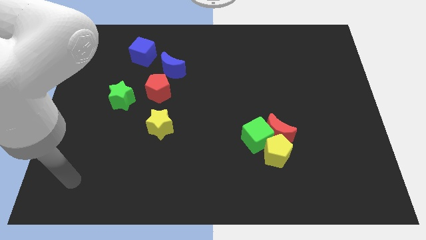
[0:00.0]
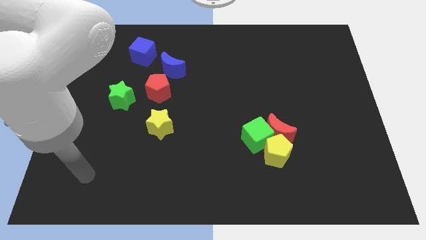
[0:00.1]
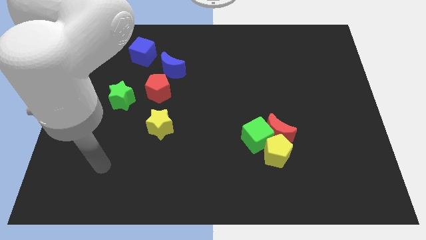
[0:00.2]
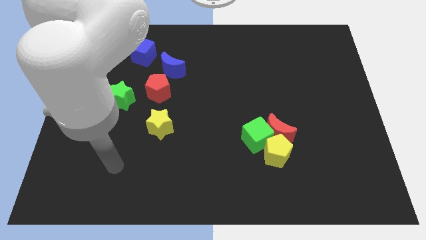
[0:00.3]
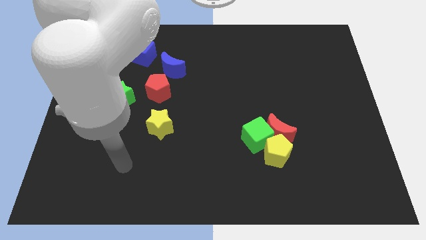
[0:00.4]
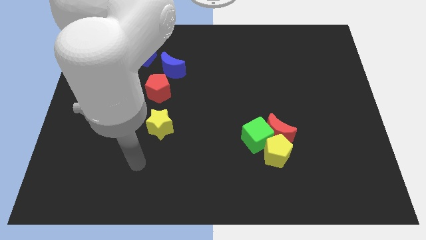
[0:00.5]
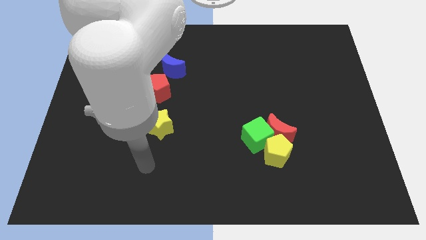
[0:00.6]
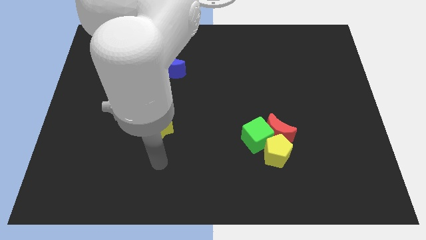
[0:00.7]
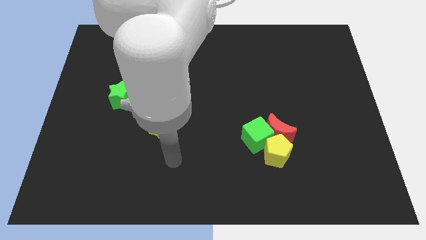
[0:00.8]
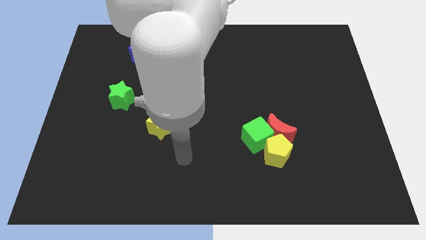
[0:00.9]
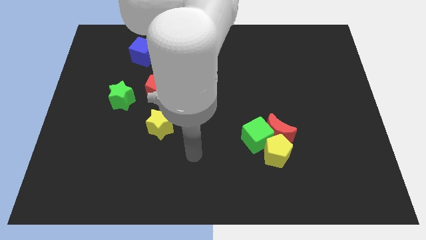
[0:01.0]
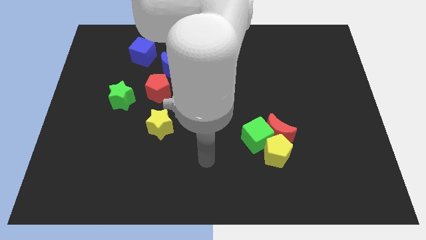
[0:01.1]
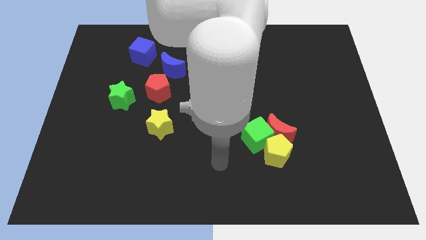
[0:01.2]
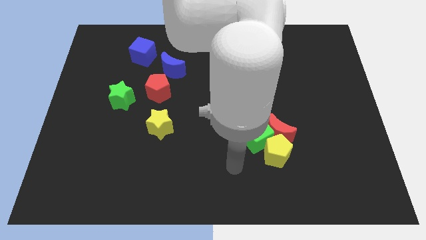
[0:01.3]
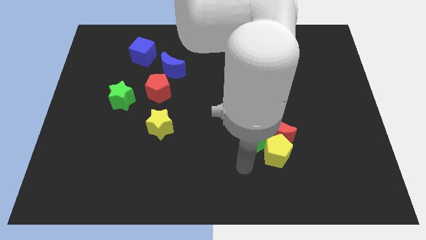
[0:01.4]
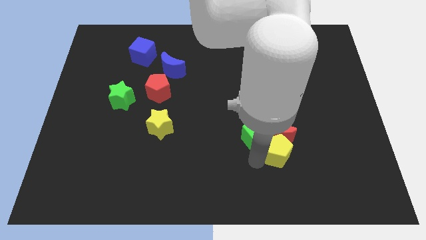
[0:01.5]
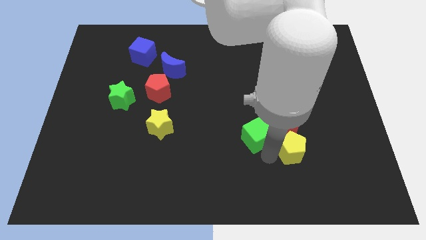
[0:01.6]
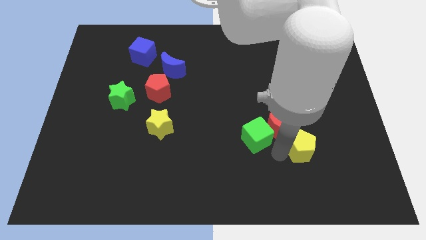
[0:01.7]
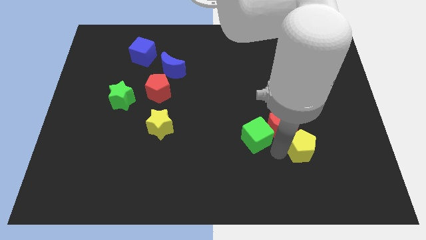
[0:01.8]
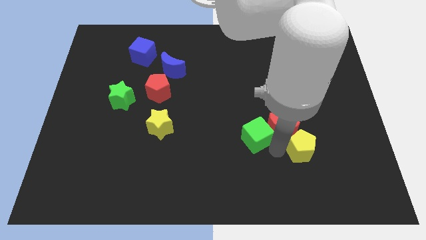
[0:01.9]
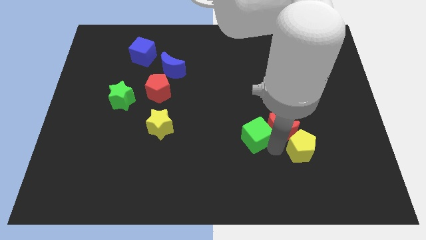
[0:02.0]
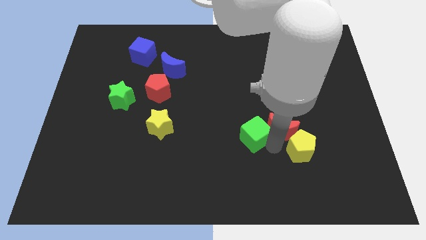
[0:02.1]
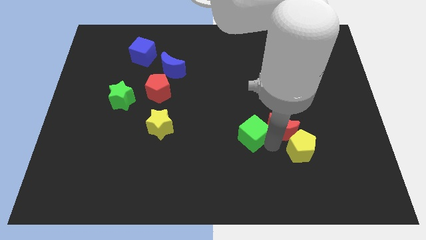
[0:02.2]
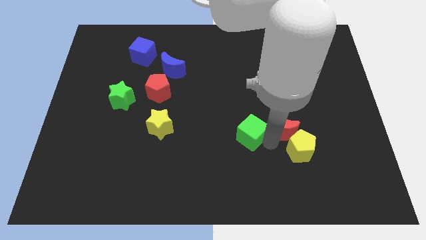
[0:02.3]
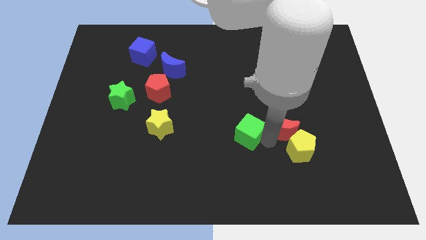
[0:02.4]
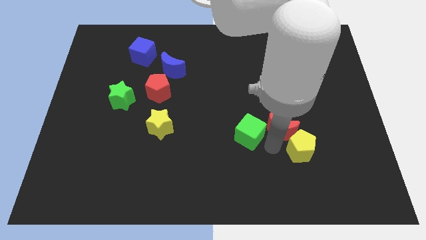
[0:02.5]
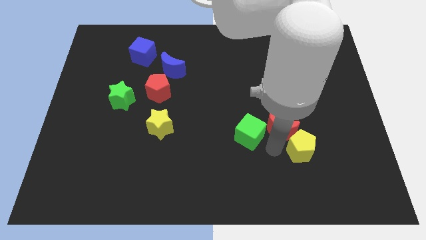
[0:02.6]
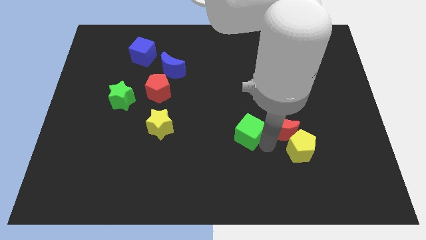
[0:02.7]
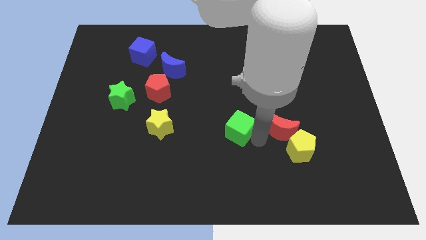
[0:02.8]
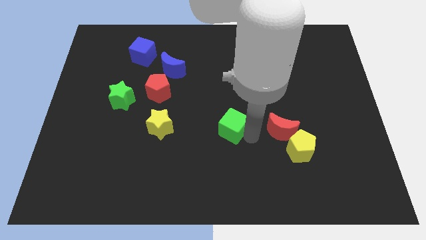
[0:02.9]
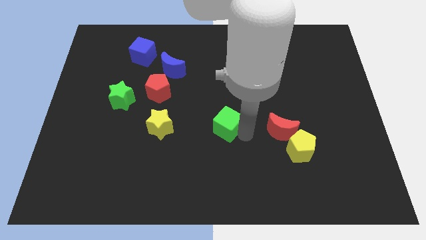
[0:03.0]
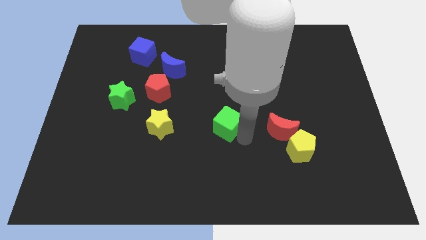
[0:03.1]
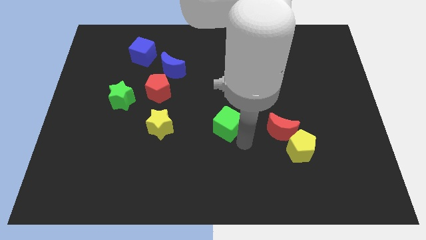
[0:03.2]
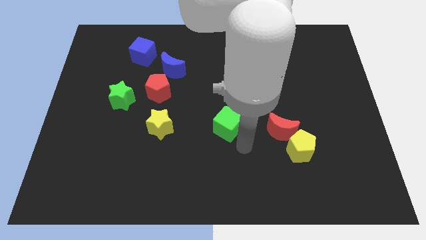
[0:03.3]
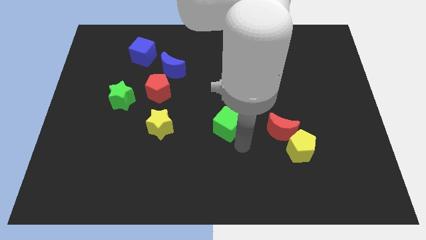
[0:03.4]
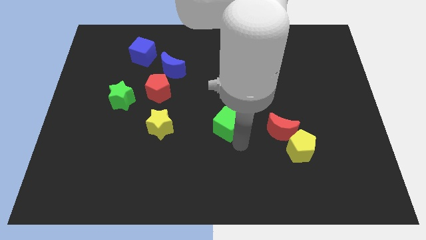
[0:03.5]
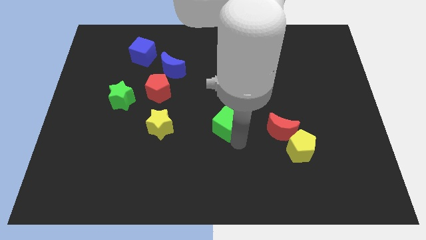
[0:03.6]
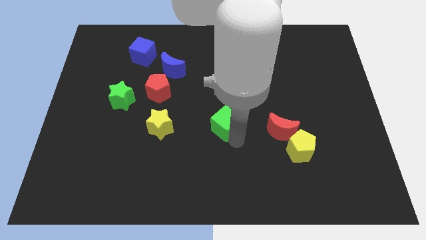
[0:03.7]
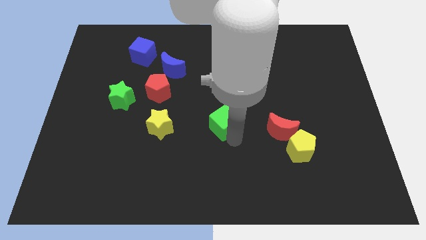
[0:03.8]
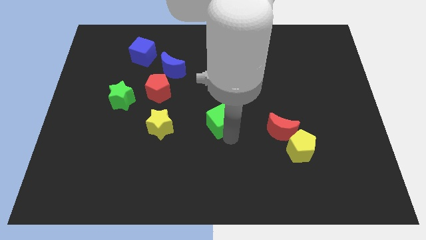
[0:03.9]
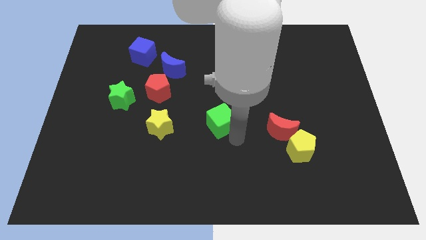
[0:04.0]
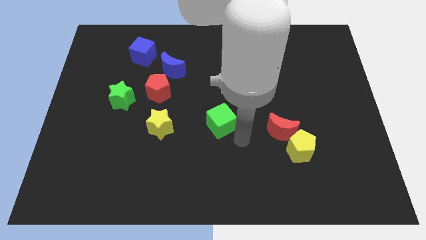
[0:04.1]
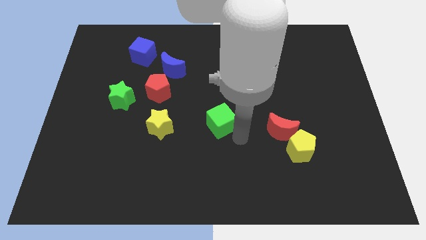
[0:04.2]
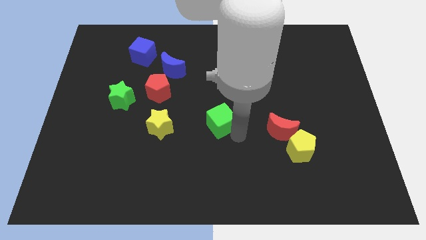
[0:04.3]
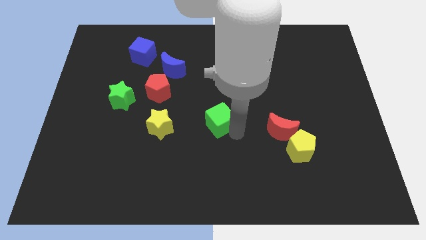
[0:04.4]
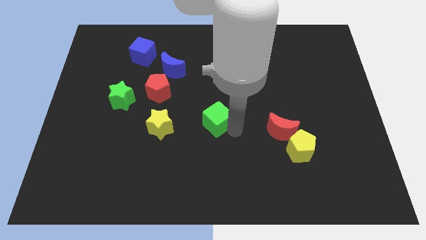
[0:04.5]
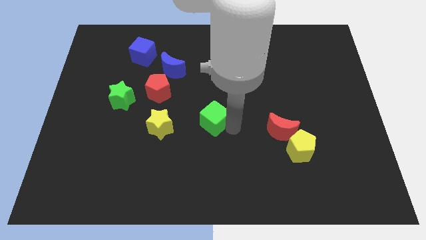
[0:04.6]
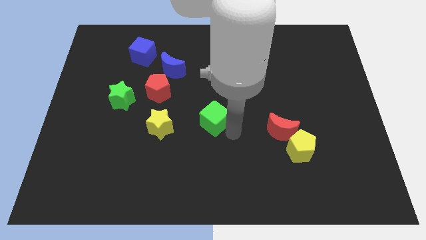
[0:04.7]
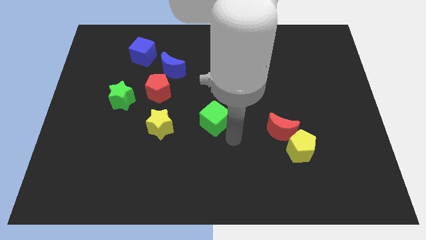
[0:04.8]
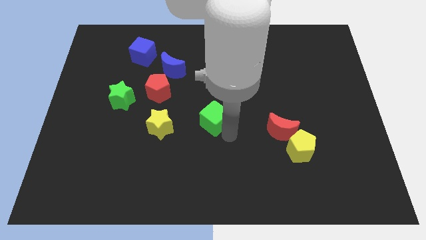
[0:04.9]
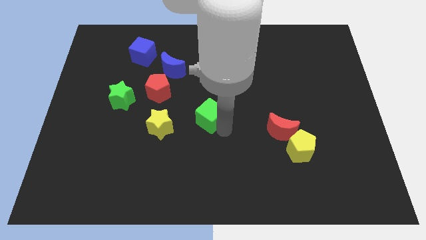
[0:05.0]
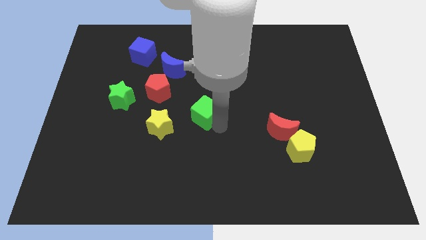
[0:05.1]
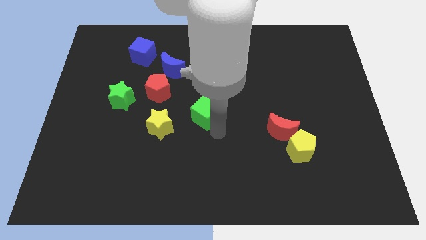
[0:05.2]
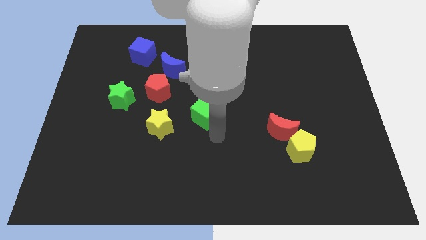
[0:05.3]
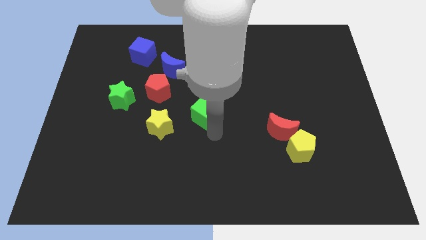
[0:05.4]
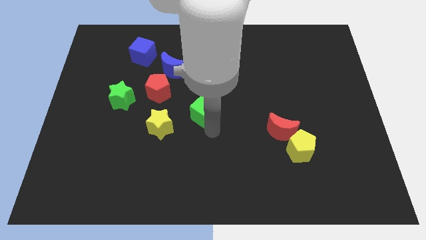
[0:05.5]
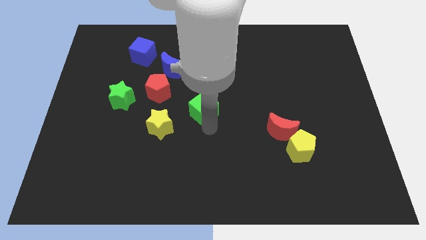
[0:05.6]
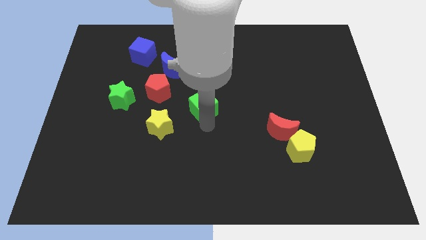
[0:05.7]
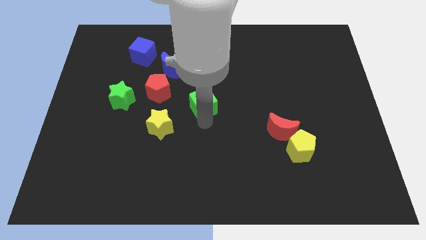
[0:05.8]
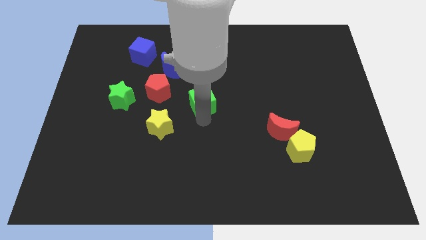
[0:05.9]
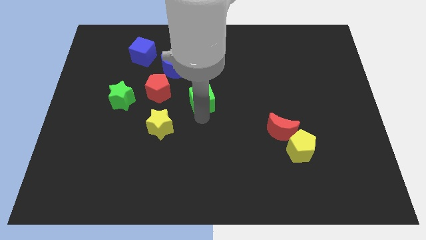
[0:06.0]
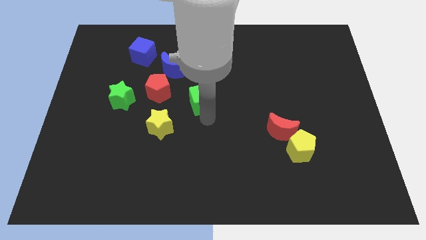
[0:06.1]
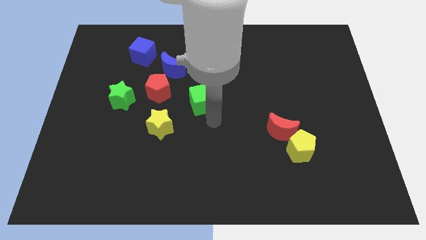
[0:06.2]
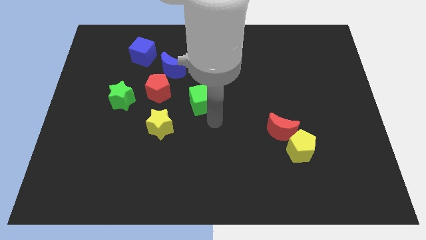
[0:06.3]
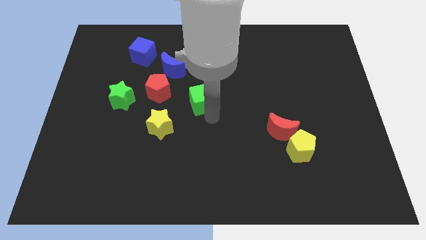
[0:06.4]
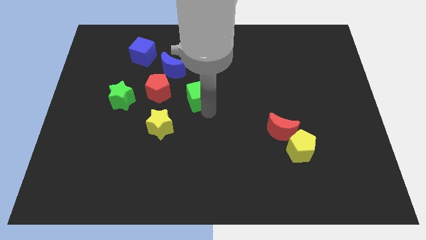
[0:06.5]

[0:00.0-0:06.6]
put the green cube to the bottom right side of the blue moon

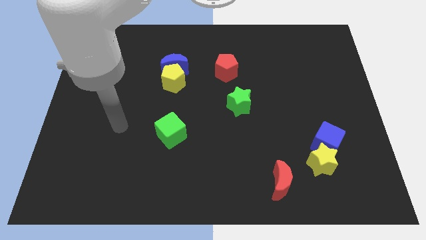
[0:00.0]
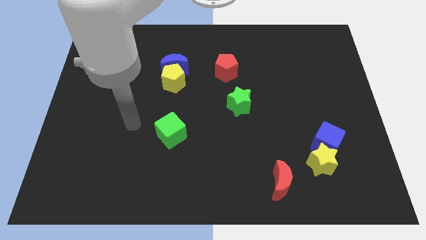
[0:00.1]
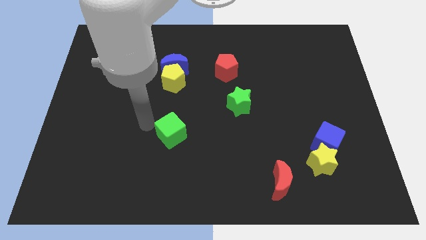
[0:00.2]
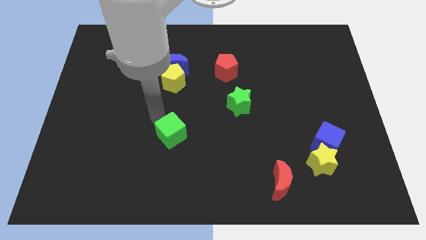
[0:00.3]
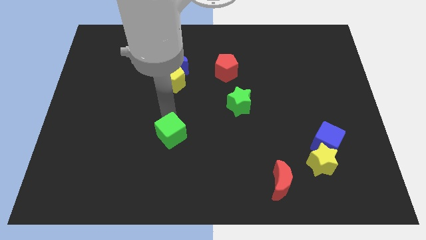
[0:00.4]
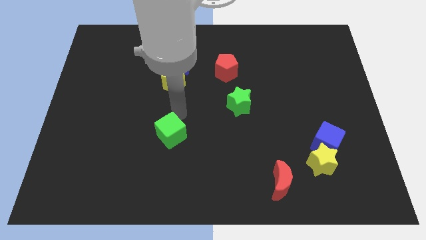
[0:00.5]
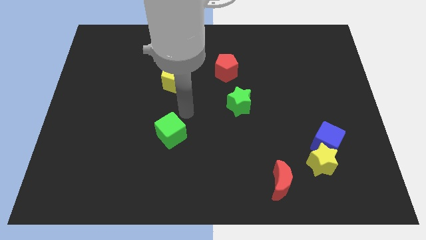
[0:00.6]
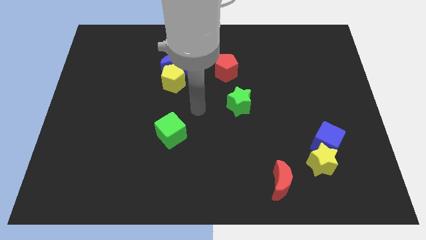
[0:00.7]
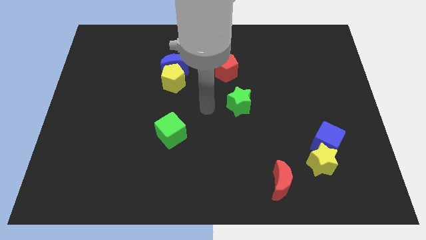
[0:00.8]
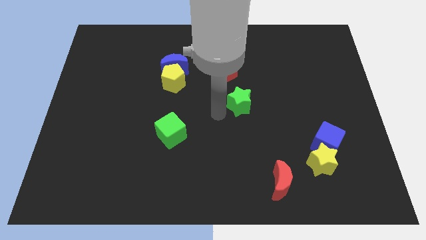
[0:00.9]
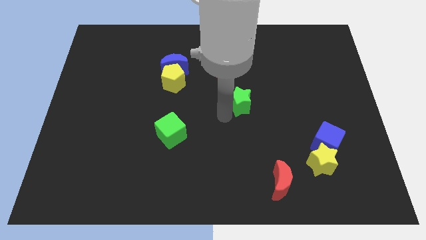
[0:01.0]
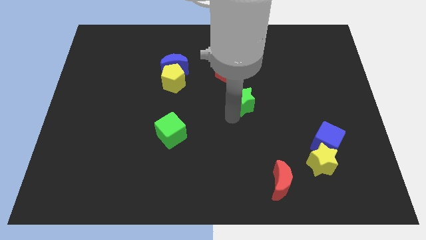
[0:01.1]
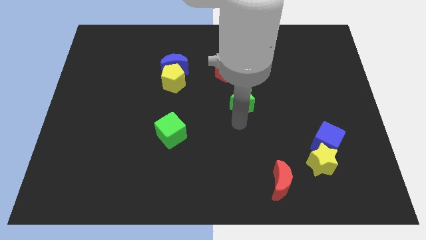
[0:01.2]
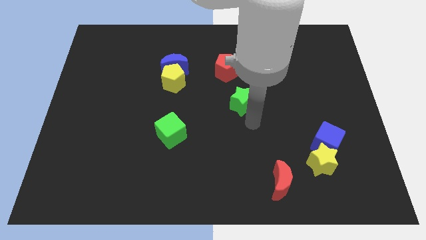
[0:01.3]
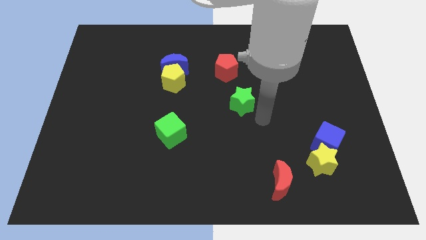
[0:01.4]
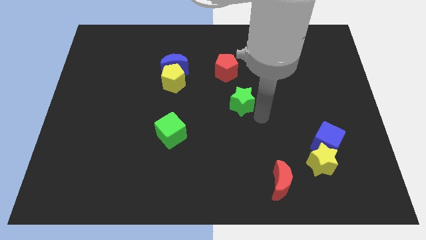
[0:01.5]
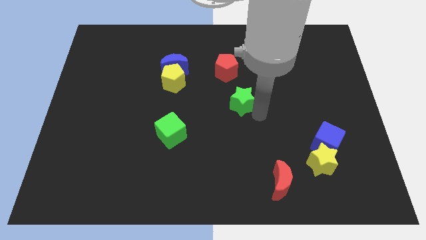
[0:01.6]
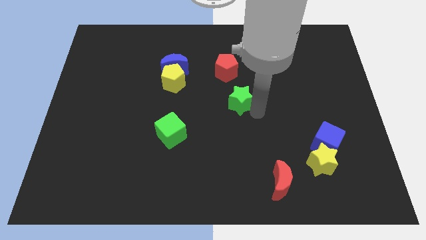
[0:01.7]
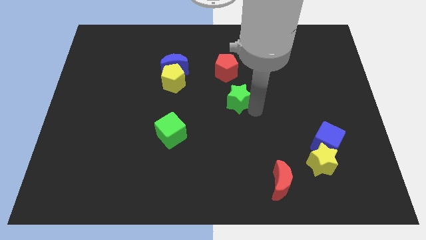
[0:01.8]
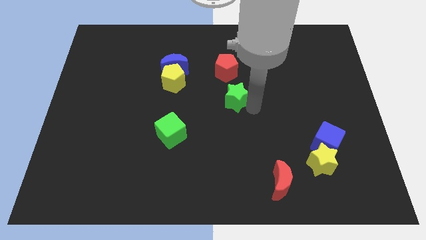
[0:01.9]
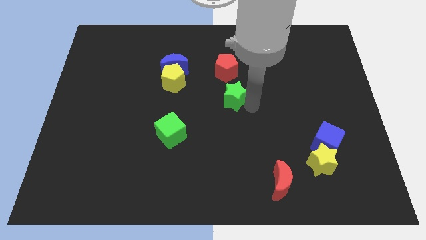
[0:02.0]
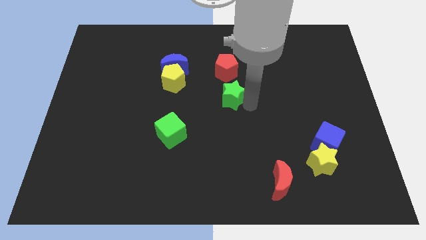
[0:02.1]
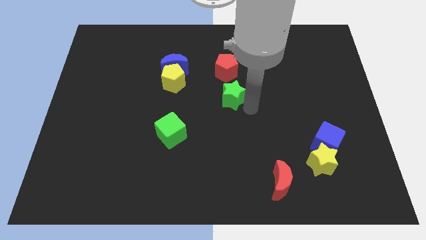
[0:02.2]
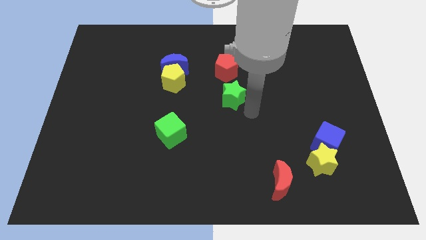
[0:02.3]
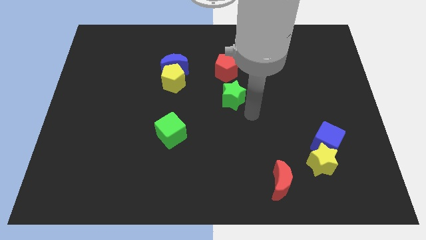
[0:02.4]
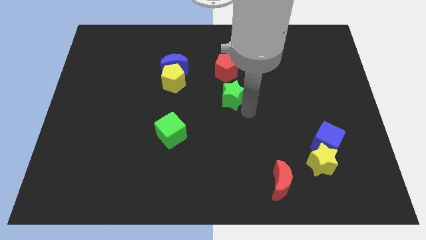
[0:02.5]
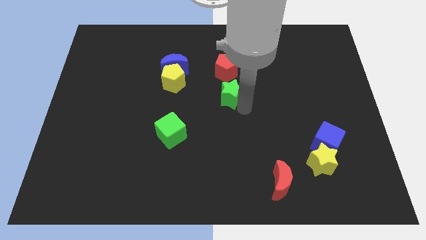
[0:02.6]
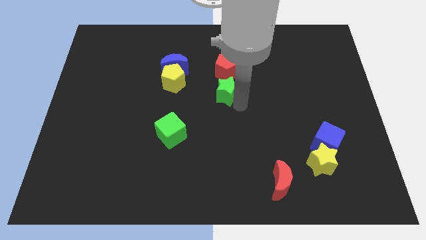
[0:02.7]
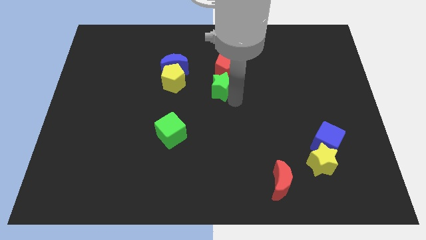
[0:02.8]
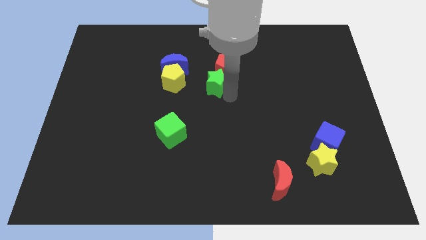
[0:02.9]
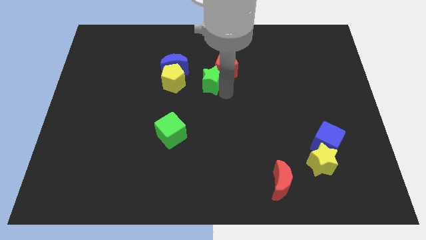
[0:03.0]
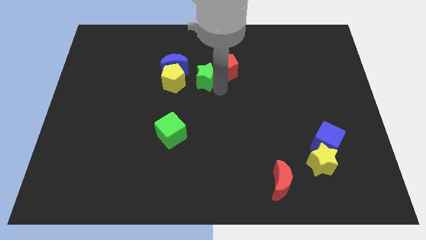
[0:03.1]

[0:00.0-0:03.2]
slide the green star diagonally up and to the right of the yellow pentagon
